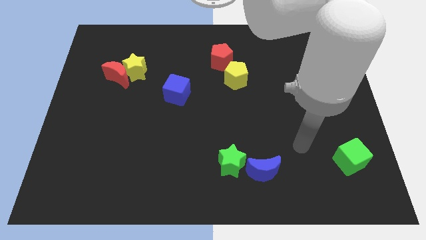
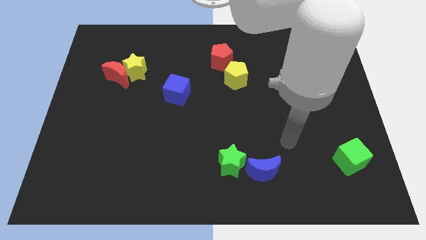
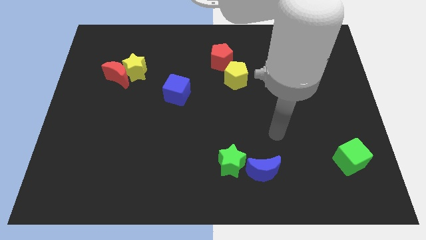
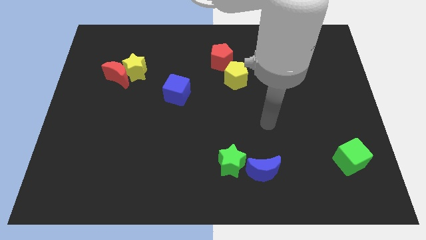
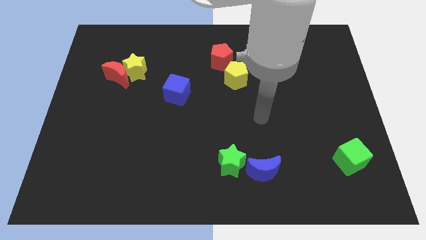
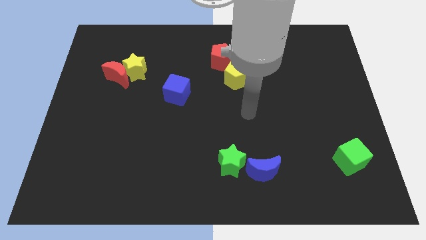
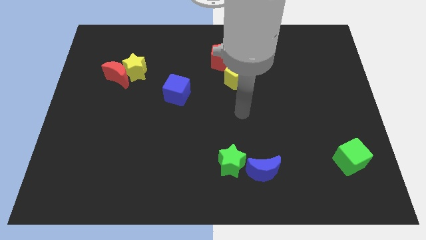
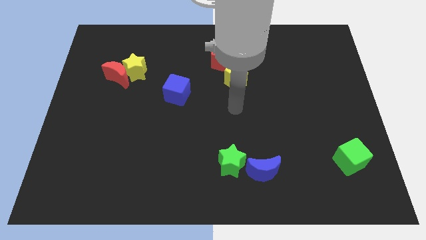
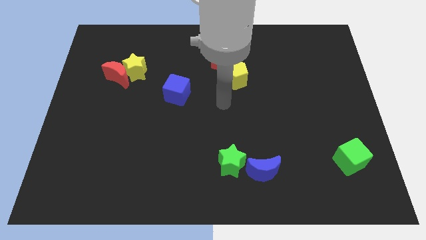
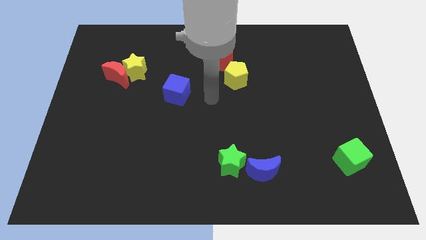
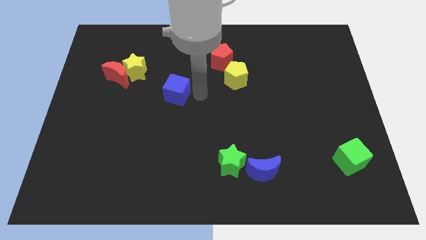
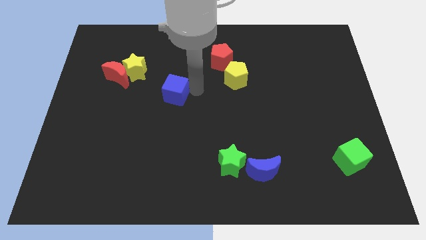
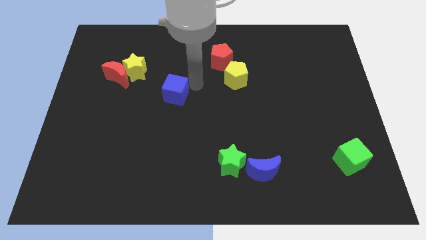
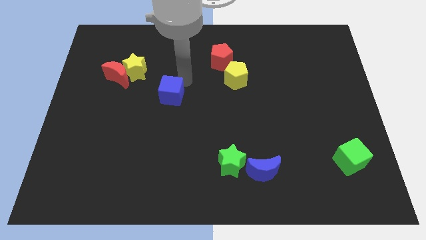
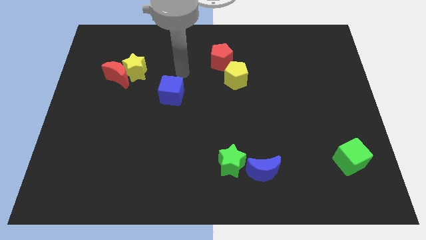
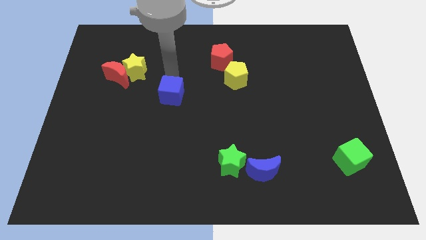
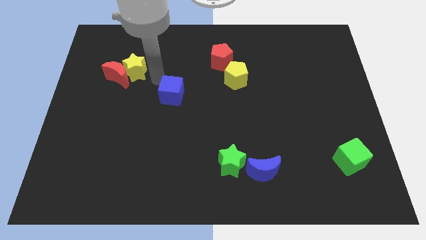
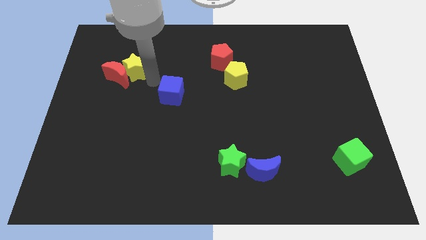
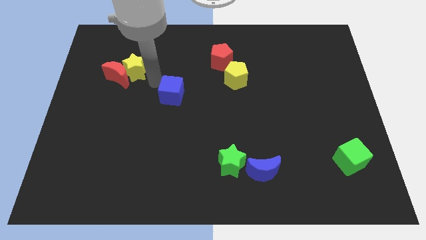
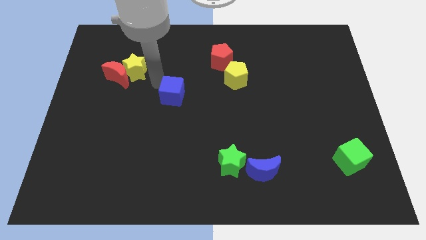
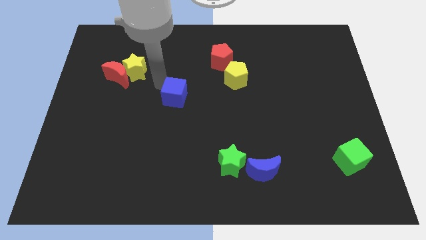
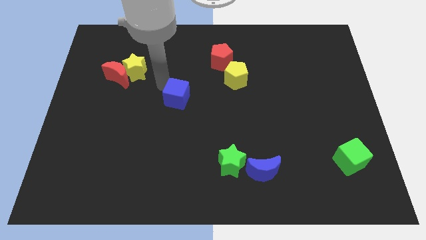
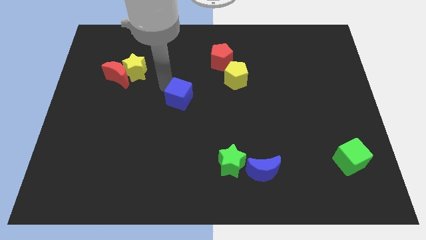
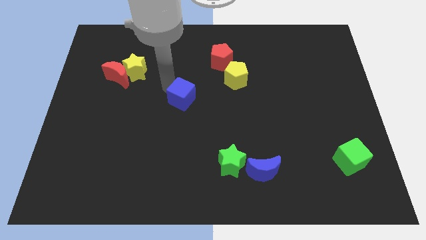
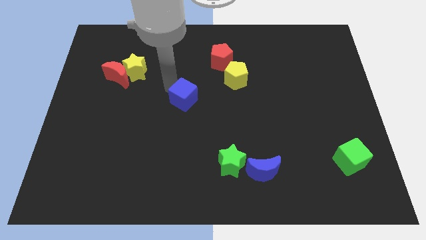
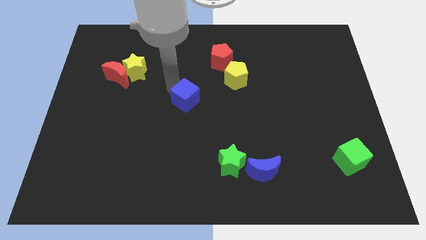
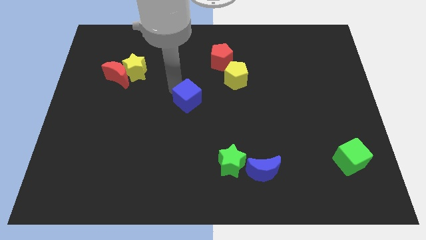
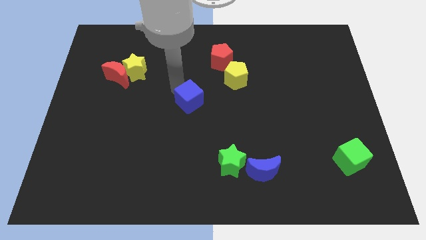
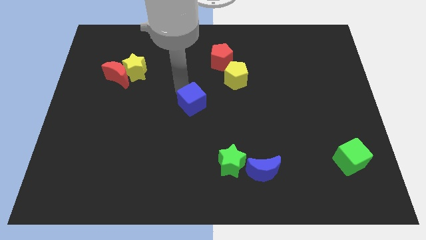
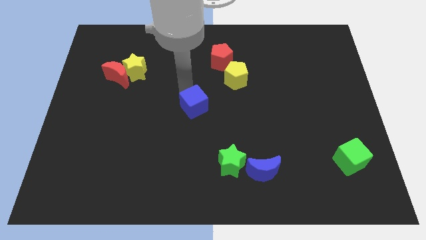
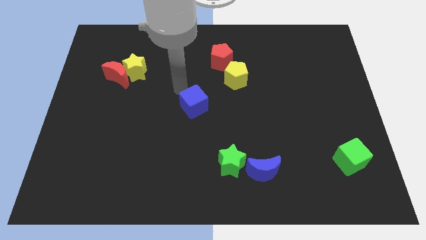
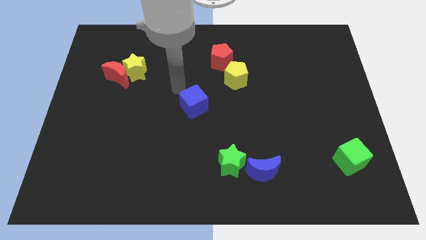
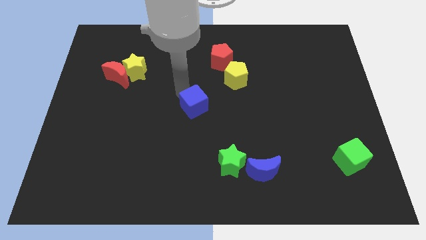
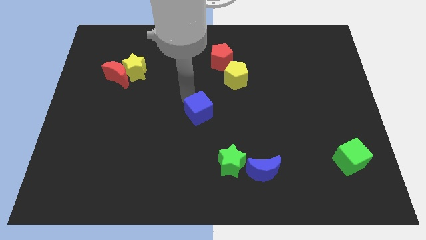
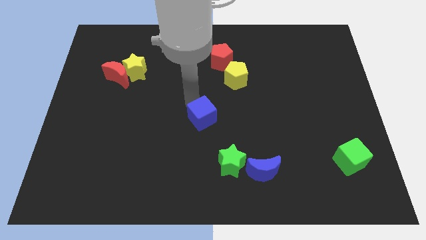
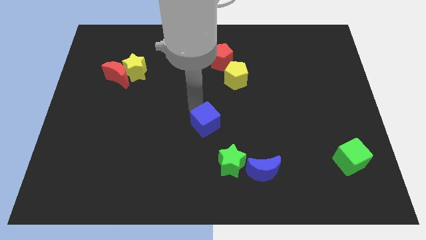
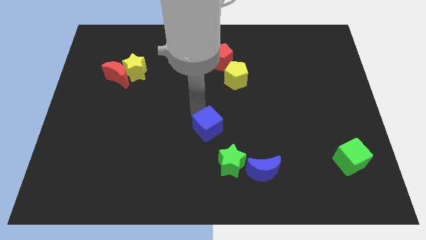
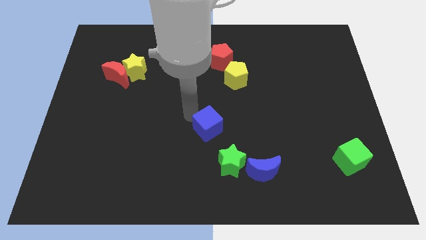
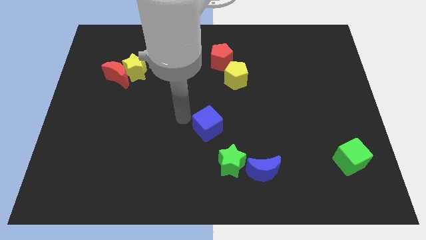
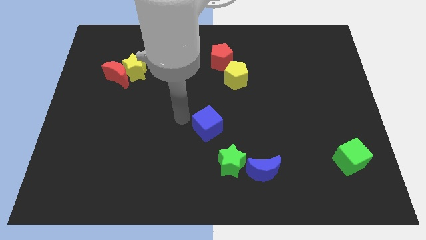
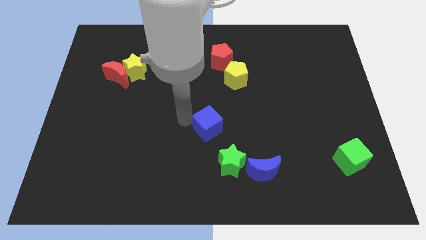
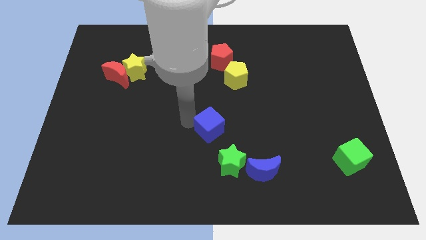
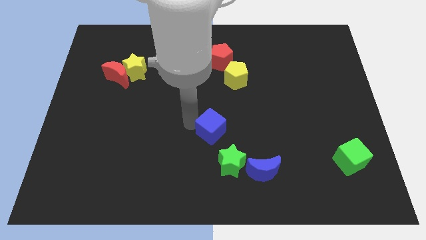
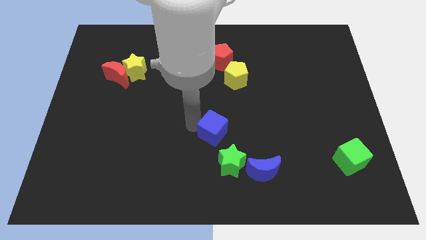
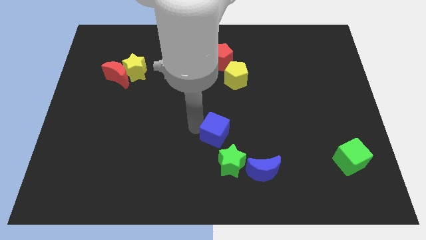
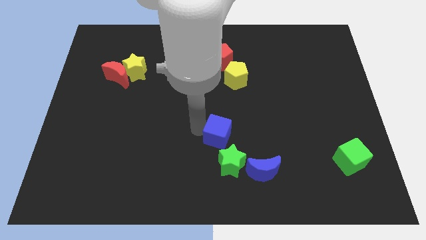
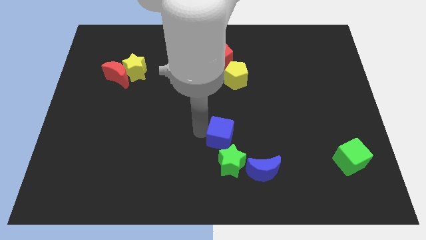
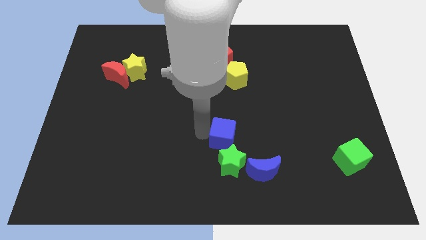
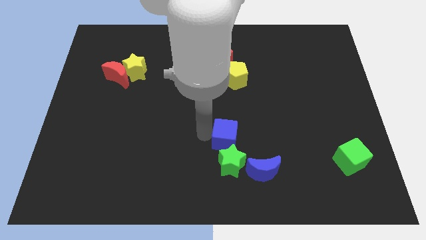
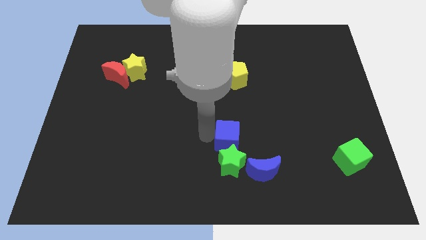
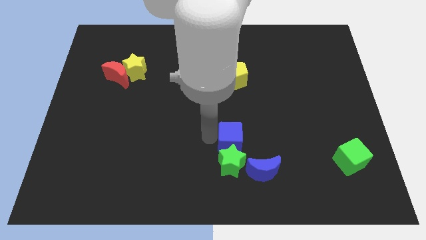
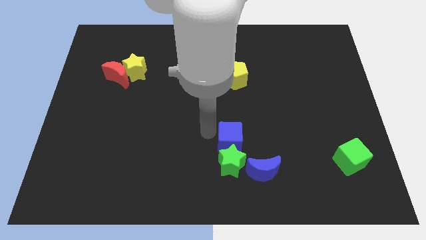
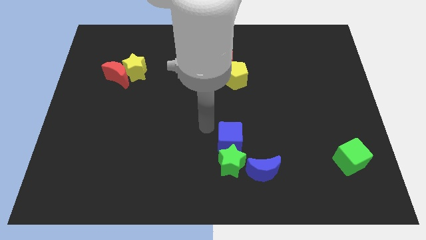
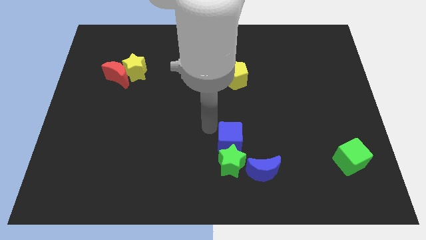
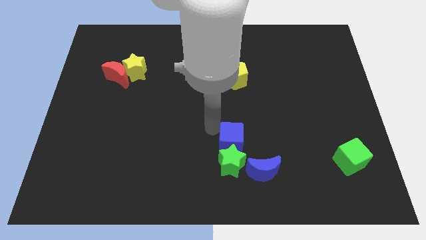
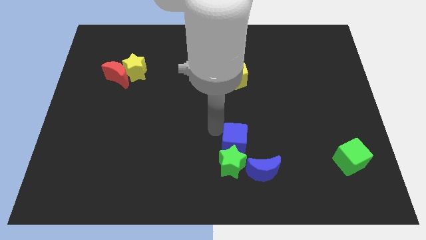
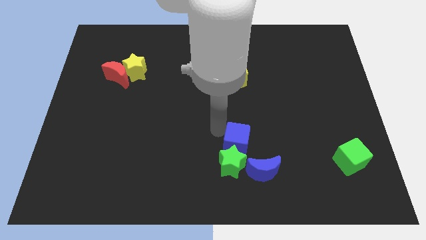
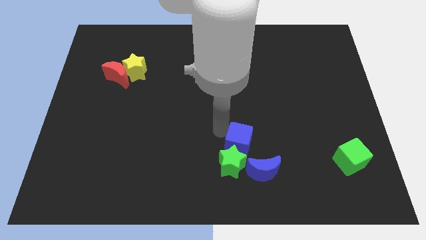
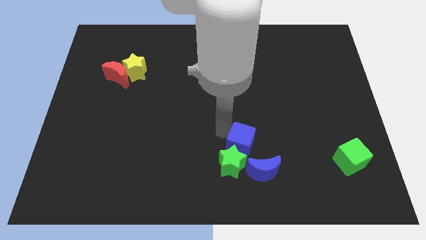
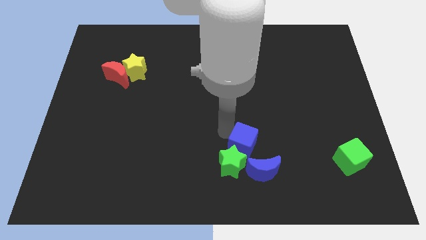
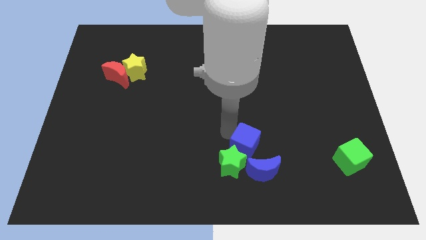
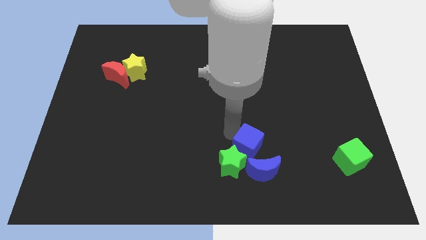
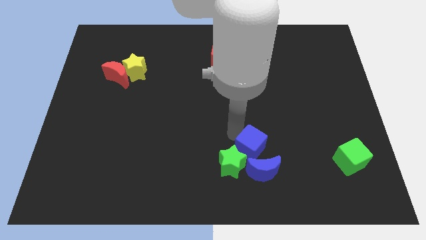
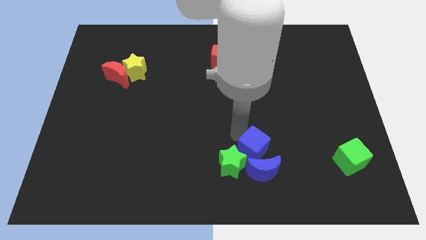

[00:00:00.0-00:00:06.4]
slide the blue cube towards the blue moon

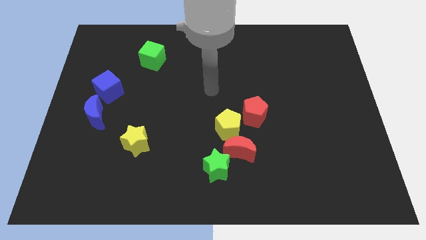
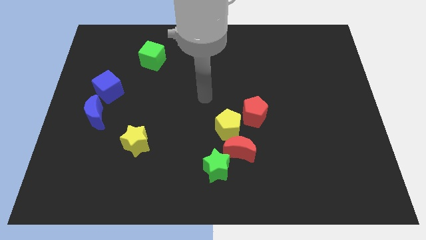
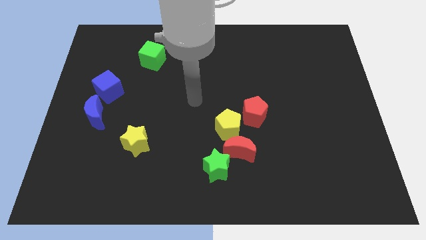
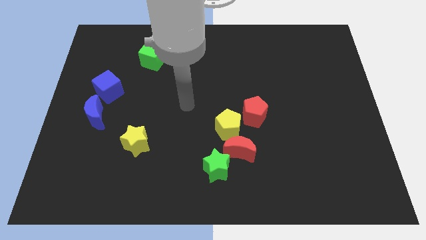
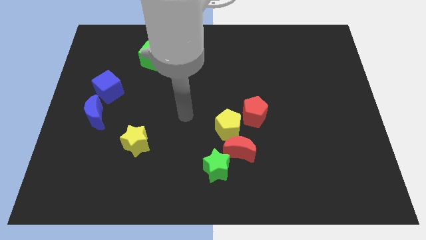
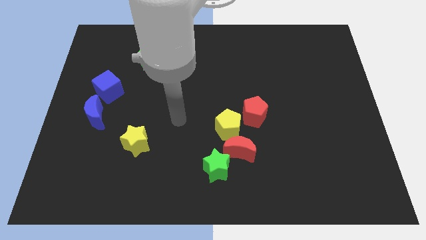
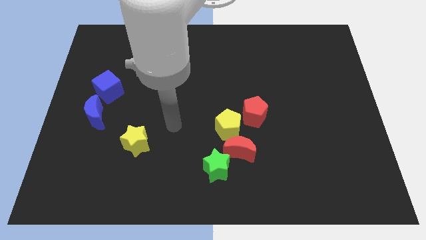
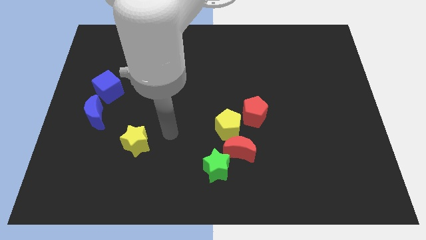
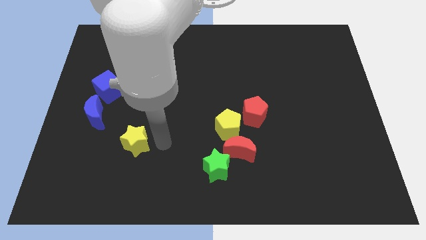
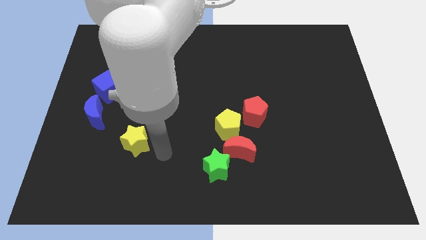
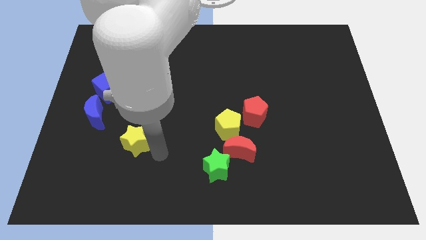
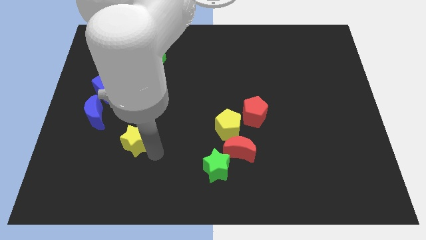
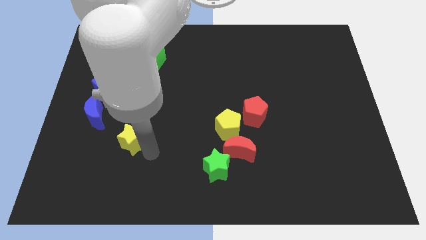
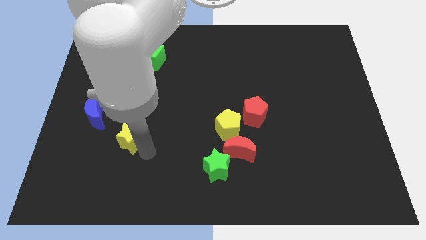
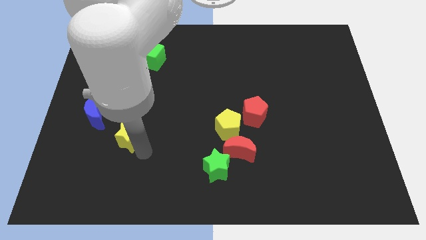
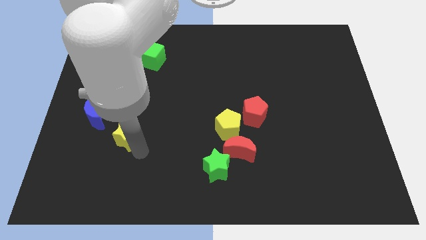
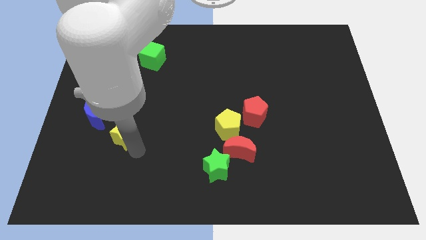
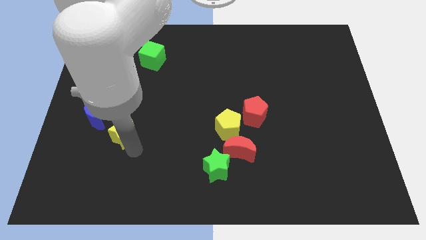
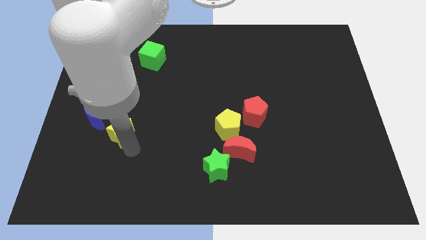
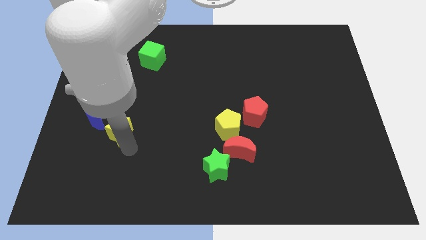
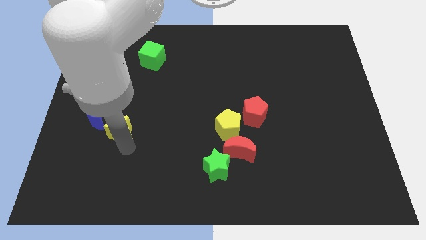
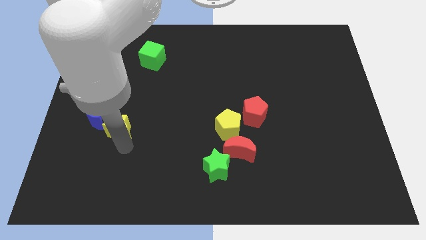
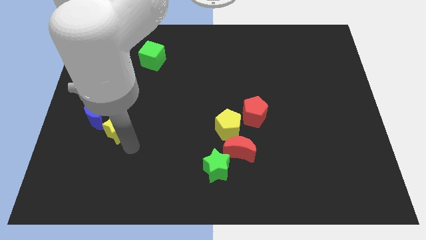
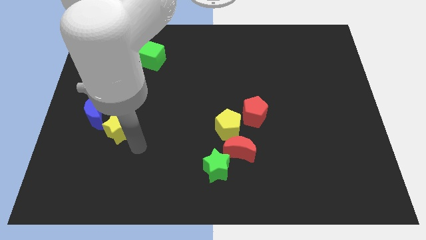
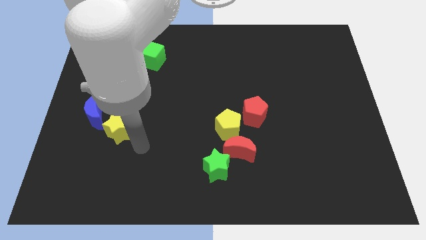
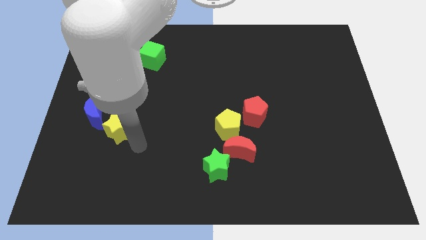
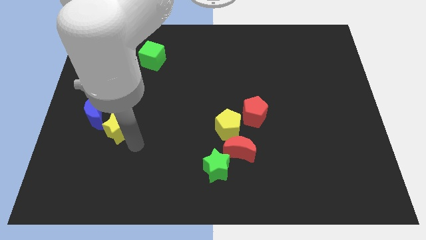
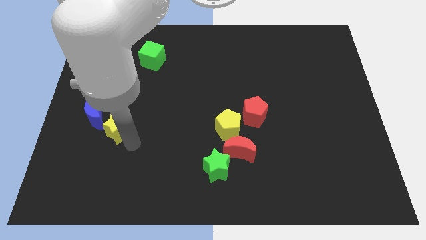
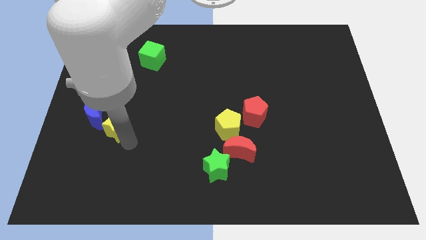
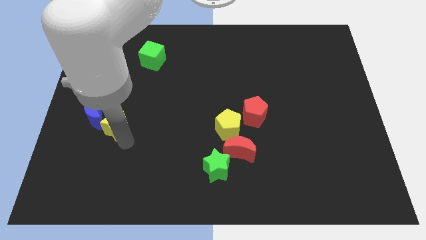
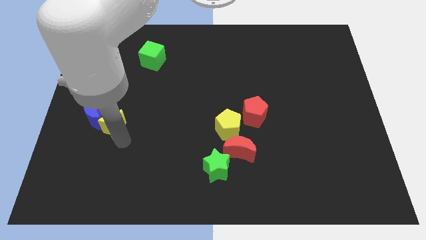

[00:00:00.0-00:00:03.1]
move the yellow star to the blue moon
